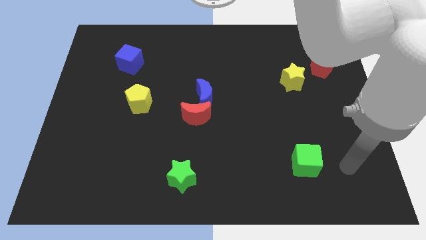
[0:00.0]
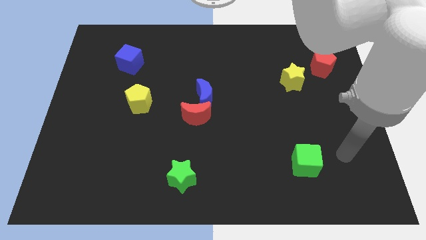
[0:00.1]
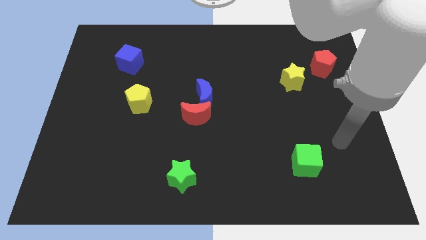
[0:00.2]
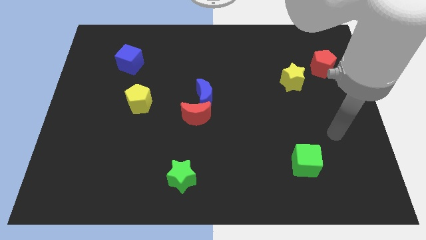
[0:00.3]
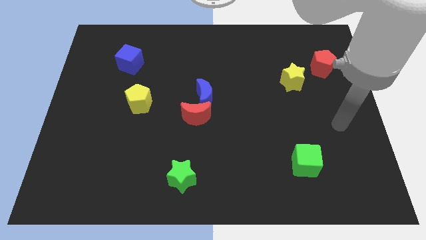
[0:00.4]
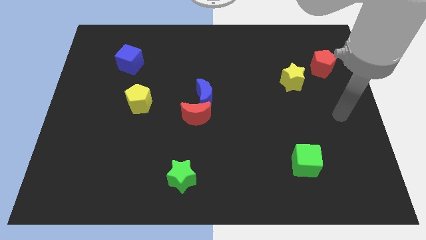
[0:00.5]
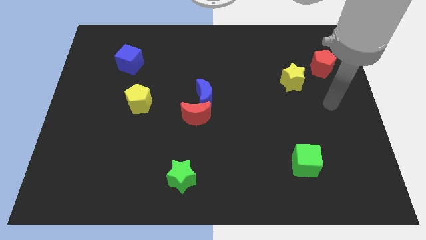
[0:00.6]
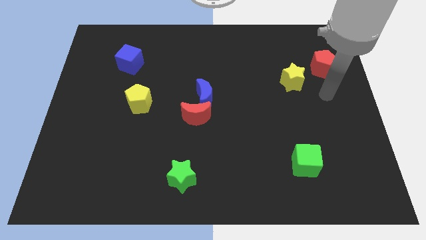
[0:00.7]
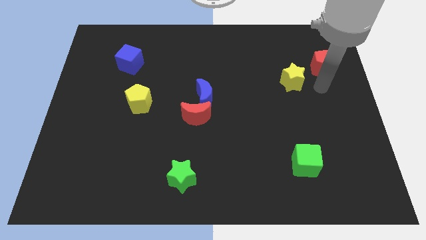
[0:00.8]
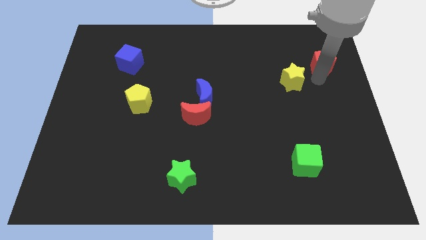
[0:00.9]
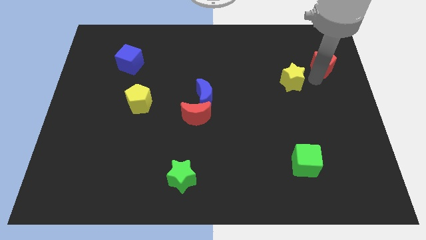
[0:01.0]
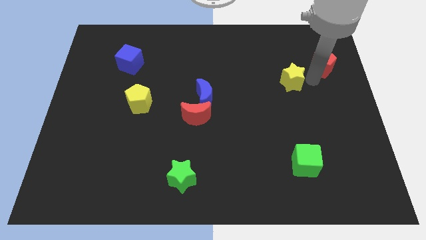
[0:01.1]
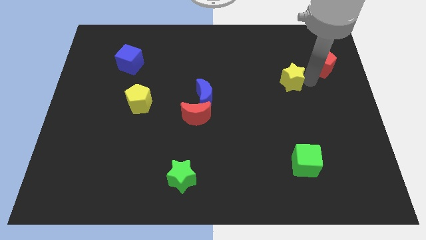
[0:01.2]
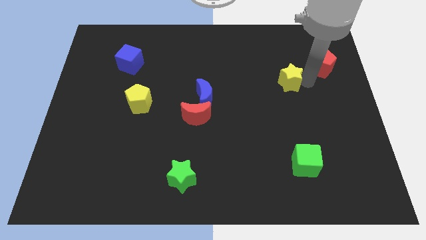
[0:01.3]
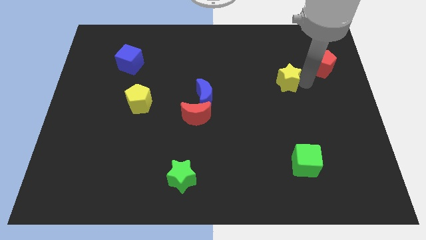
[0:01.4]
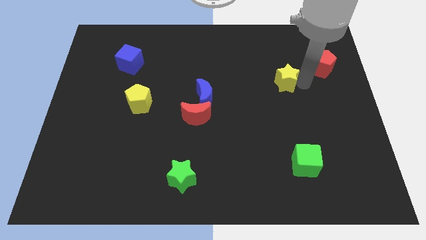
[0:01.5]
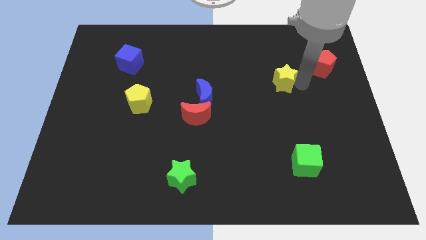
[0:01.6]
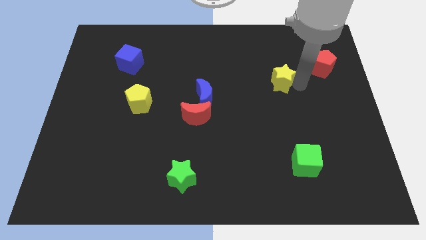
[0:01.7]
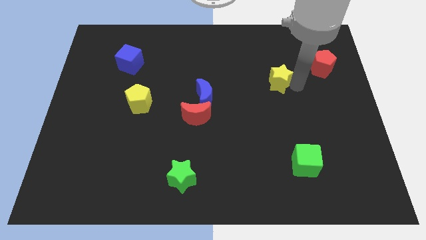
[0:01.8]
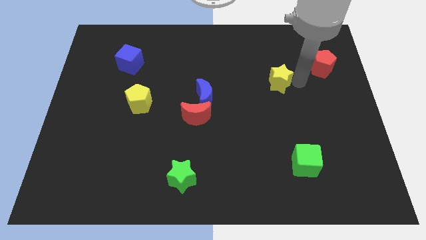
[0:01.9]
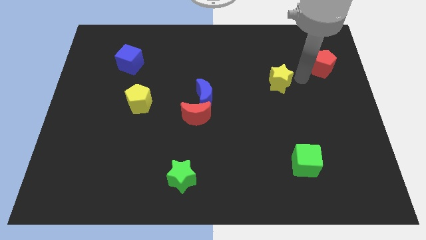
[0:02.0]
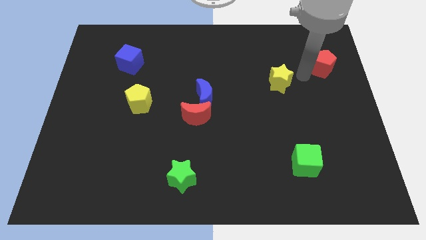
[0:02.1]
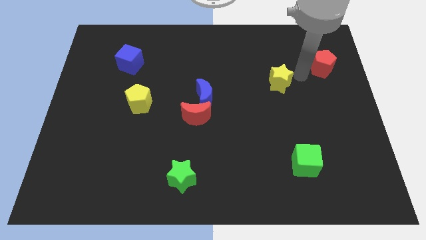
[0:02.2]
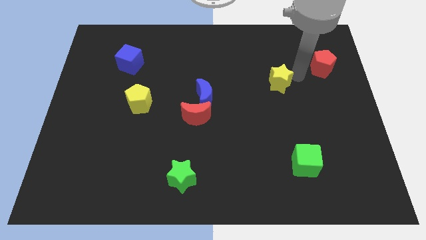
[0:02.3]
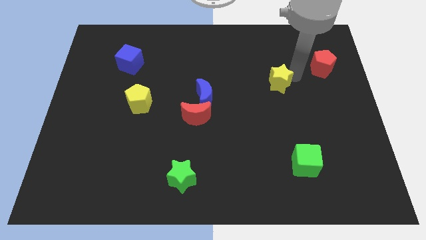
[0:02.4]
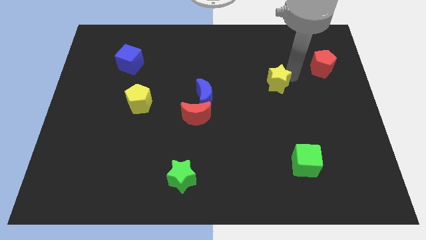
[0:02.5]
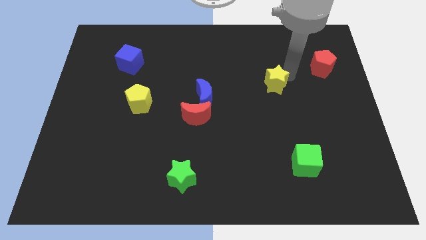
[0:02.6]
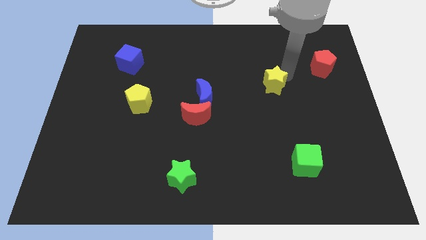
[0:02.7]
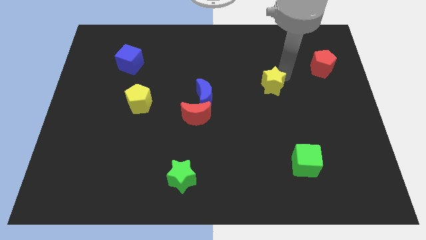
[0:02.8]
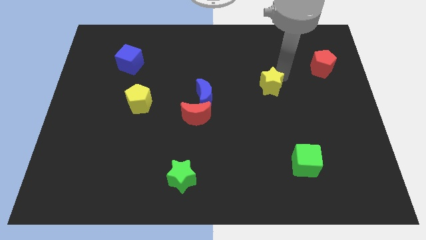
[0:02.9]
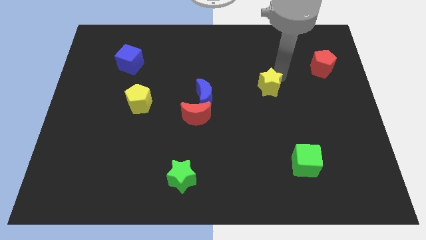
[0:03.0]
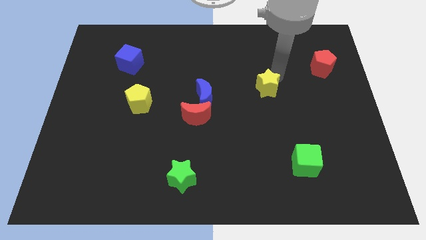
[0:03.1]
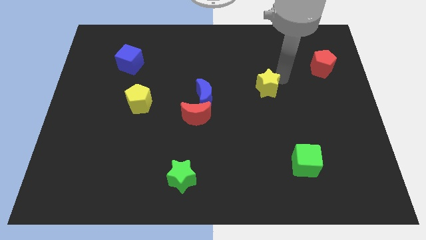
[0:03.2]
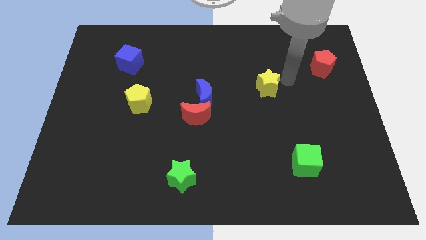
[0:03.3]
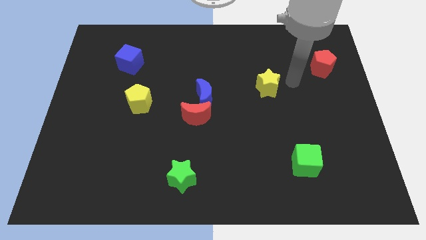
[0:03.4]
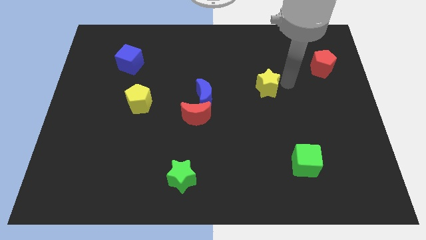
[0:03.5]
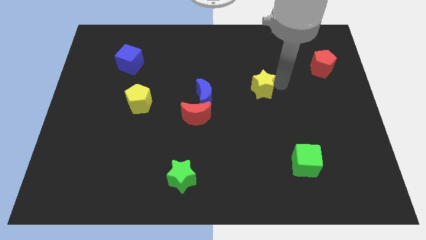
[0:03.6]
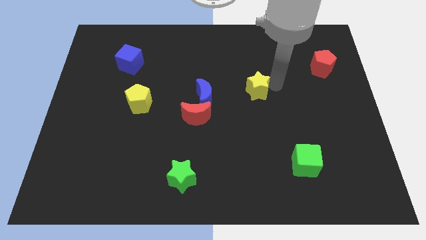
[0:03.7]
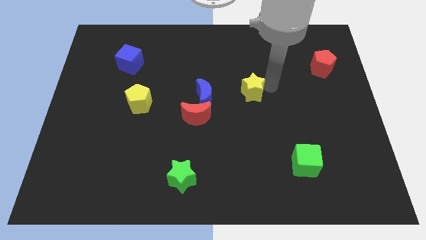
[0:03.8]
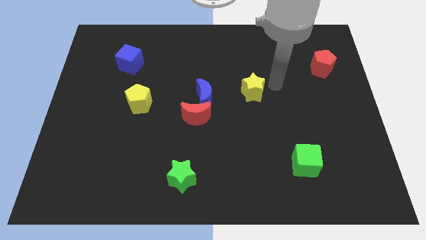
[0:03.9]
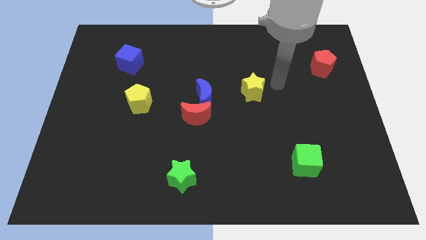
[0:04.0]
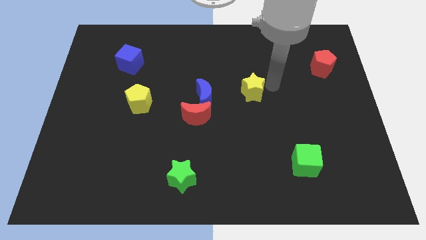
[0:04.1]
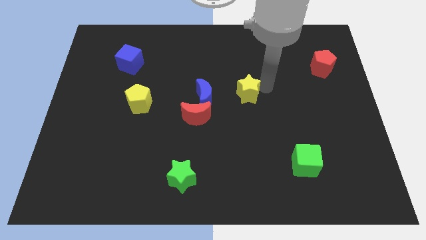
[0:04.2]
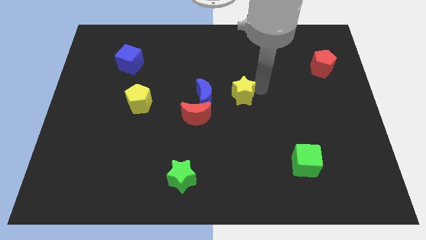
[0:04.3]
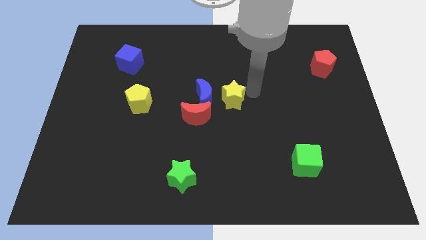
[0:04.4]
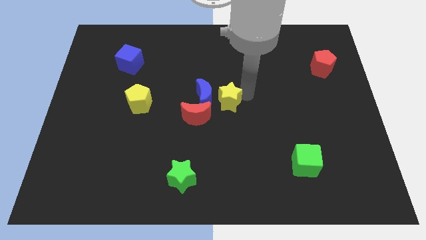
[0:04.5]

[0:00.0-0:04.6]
push the yellow star next to the blue moon

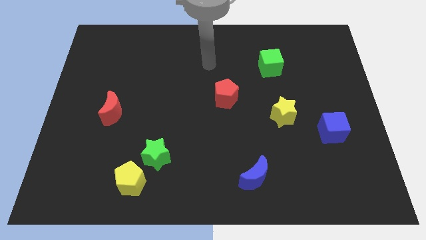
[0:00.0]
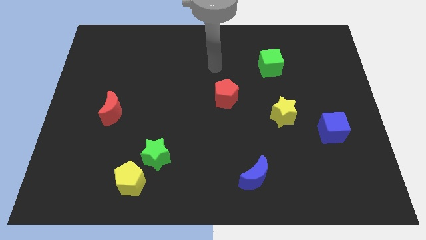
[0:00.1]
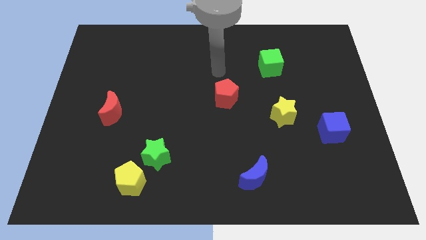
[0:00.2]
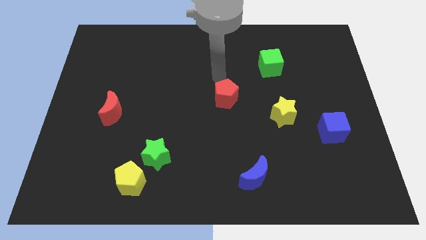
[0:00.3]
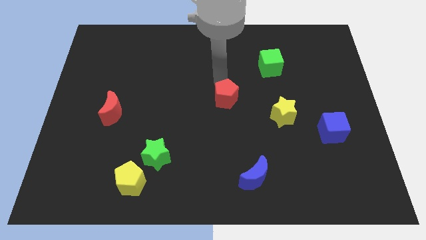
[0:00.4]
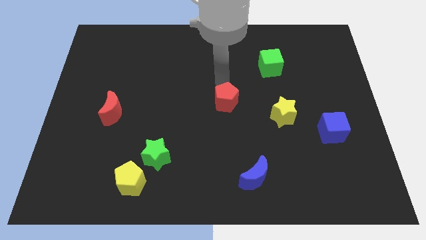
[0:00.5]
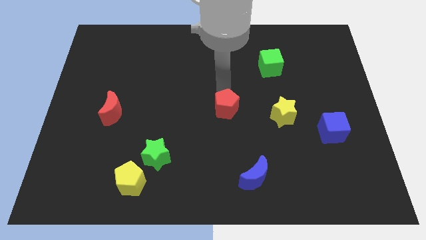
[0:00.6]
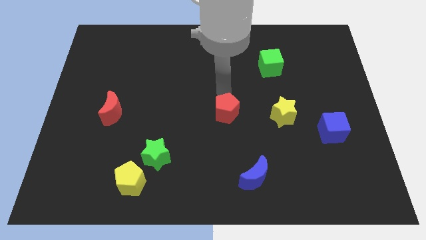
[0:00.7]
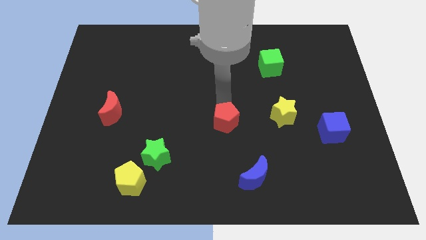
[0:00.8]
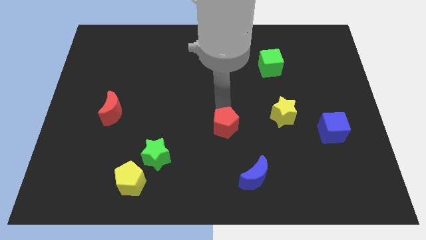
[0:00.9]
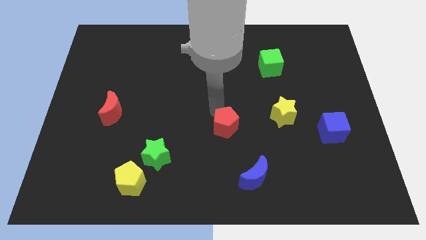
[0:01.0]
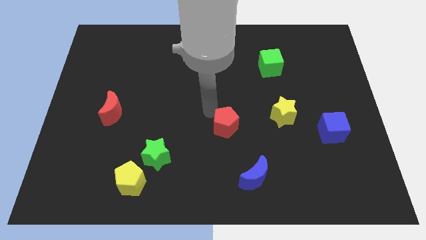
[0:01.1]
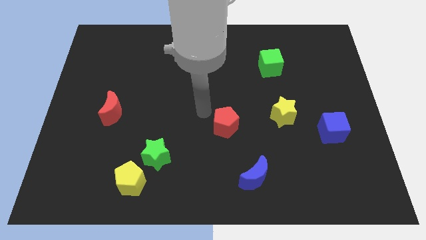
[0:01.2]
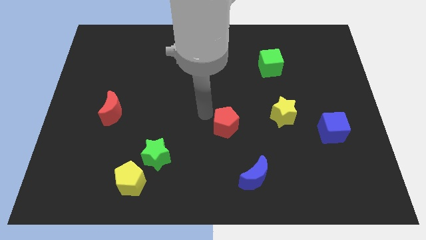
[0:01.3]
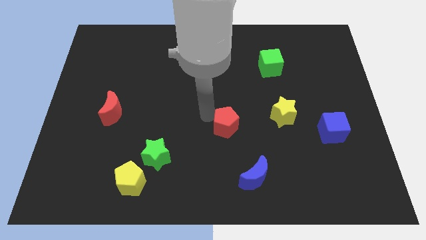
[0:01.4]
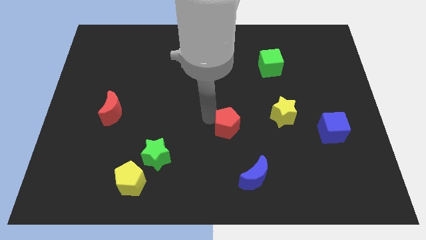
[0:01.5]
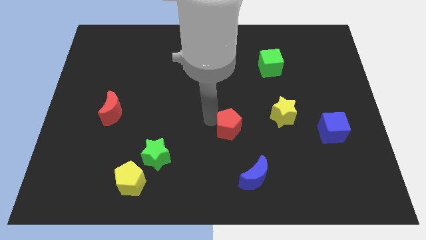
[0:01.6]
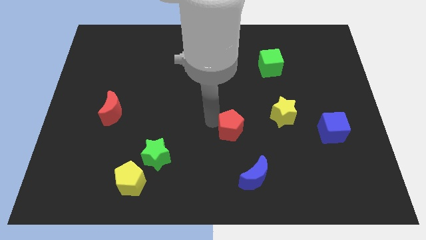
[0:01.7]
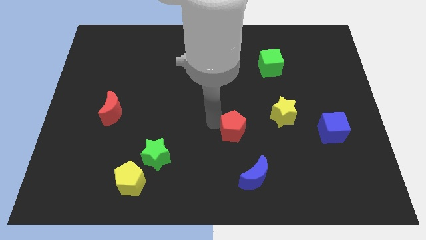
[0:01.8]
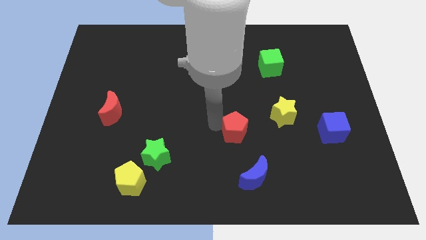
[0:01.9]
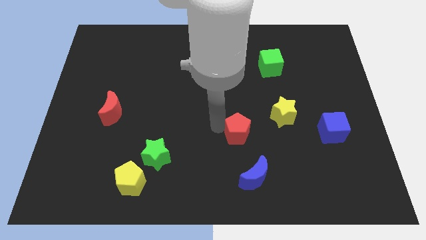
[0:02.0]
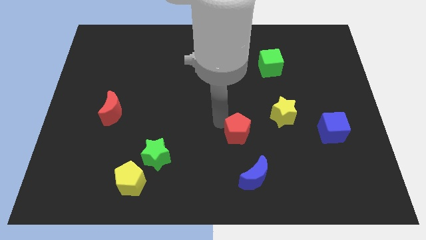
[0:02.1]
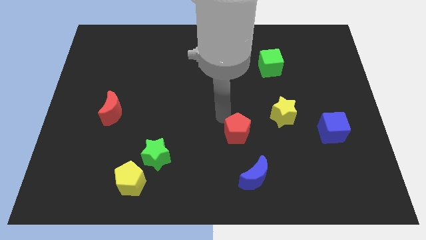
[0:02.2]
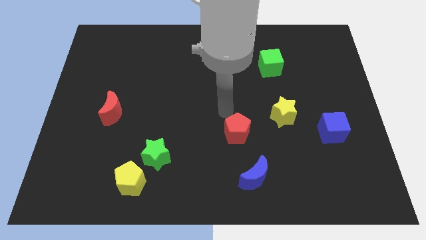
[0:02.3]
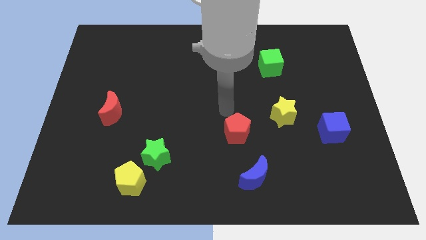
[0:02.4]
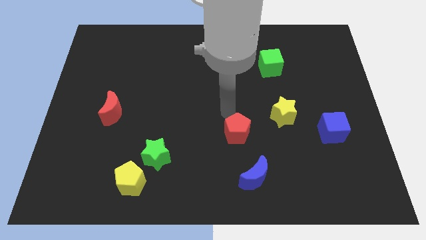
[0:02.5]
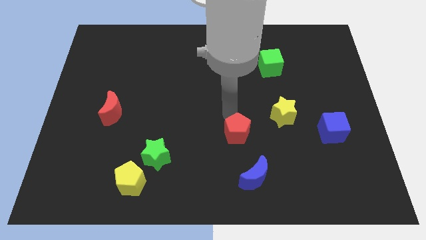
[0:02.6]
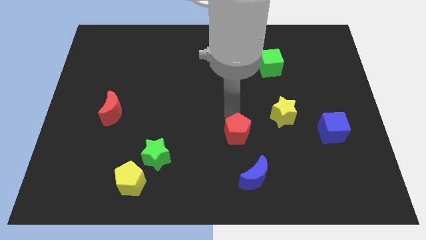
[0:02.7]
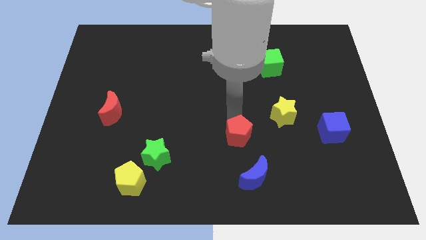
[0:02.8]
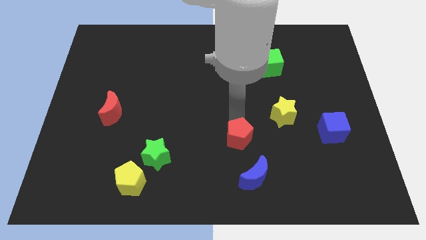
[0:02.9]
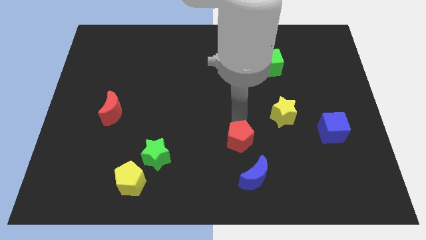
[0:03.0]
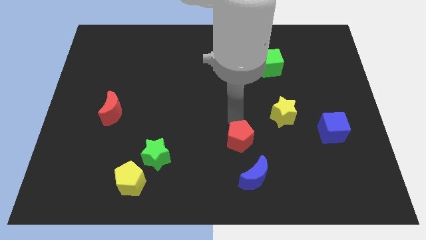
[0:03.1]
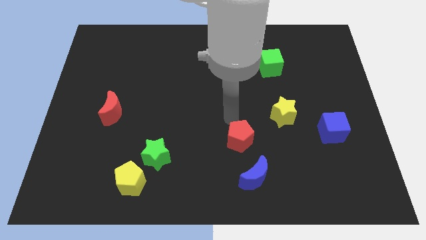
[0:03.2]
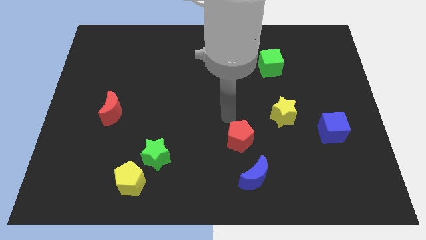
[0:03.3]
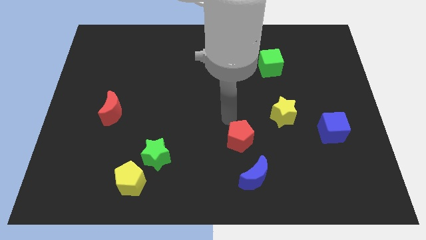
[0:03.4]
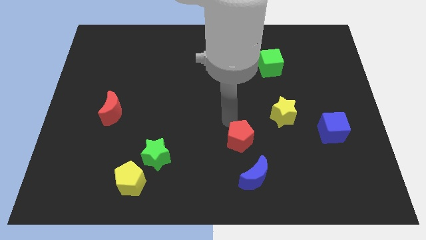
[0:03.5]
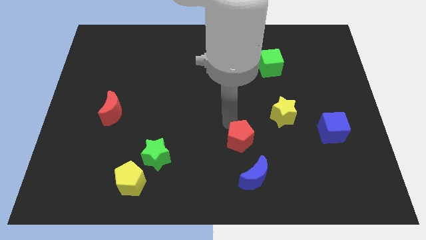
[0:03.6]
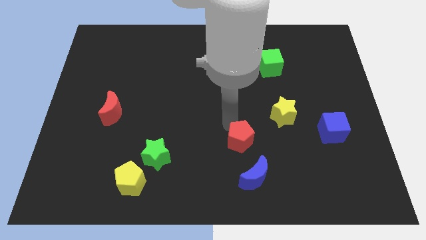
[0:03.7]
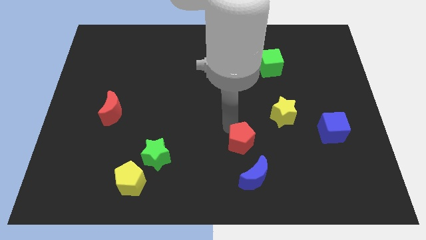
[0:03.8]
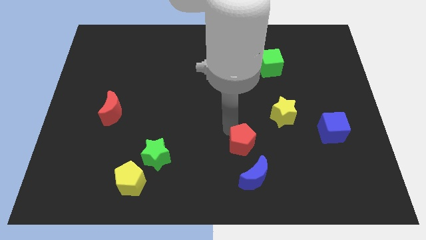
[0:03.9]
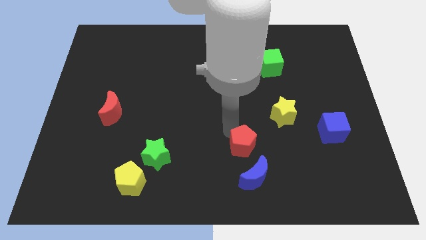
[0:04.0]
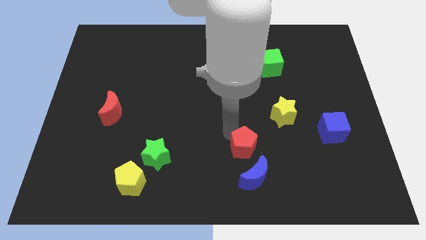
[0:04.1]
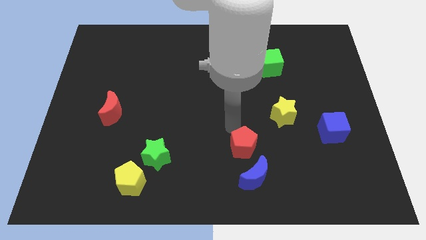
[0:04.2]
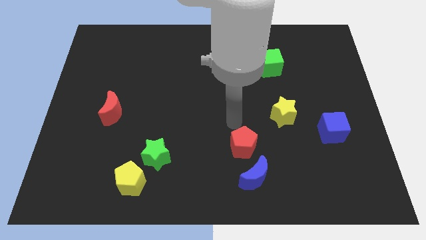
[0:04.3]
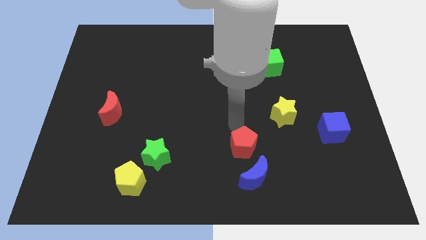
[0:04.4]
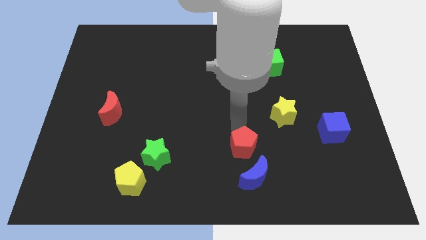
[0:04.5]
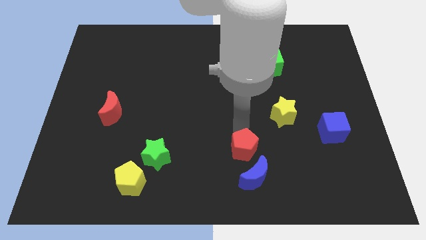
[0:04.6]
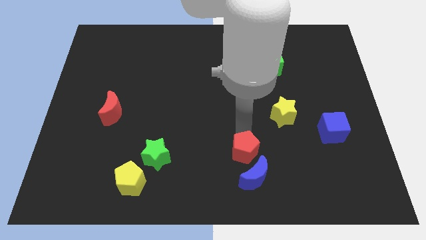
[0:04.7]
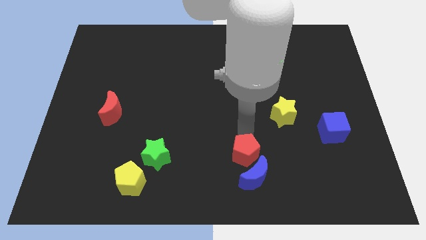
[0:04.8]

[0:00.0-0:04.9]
put the red pentagon close to the blue moon
